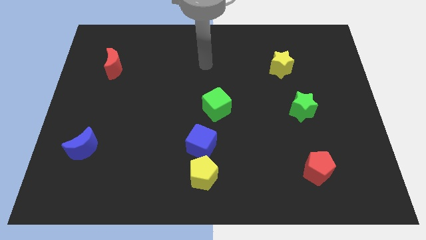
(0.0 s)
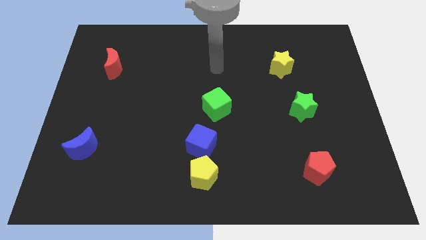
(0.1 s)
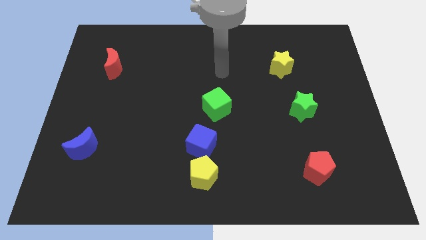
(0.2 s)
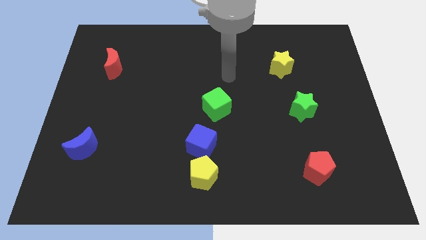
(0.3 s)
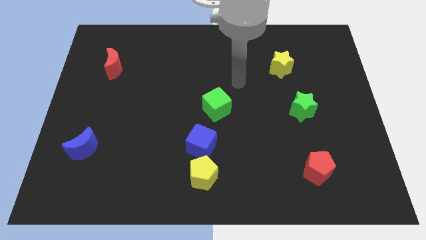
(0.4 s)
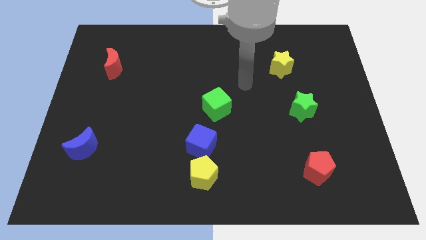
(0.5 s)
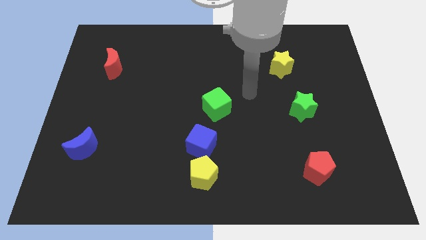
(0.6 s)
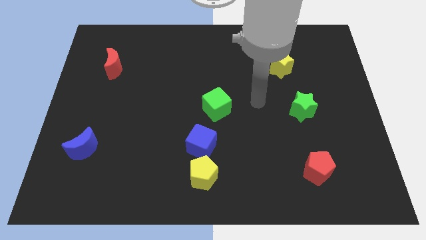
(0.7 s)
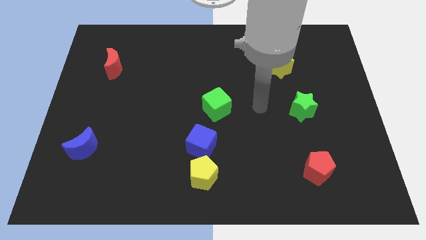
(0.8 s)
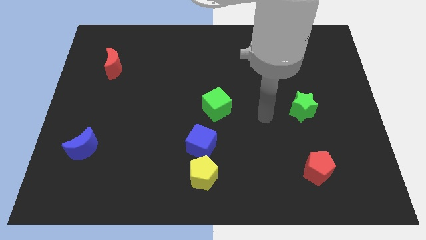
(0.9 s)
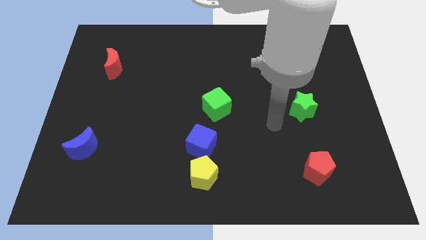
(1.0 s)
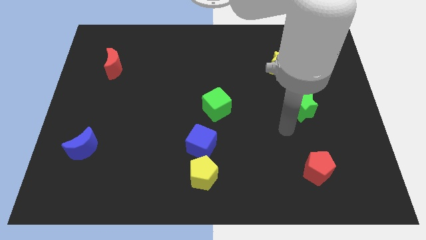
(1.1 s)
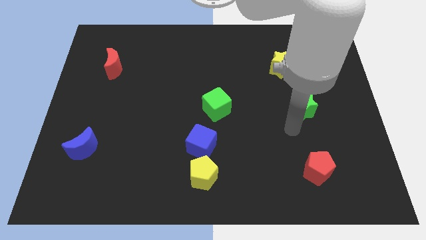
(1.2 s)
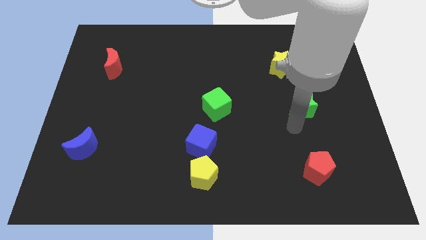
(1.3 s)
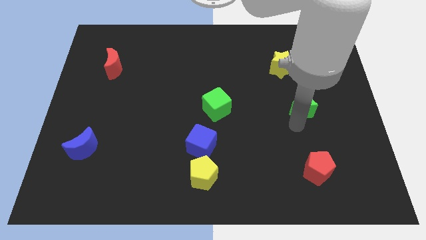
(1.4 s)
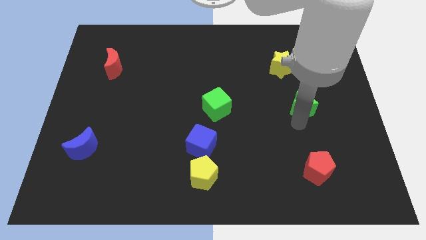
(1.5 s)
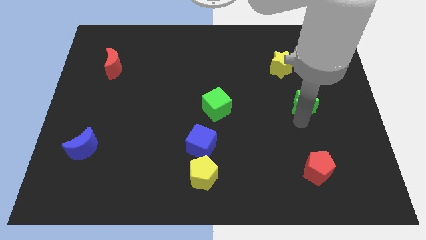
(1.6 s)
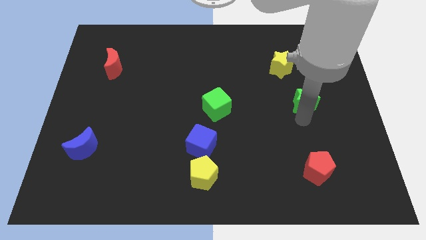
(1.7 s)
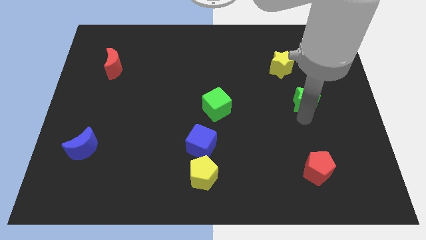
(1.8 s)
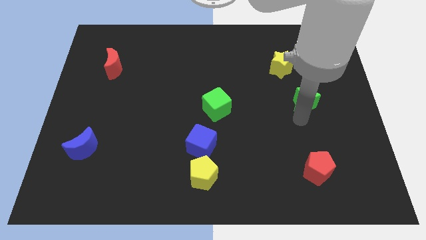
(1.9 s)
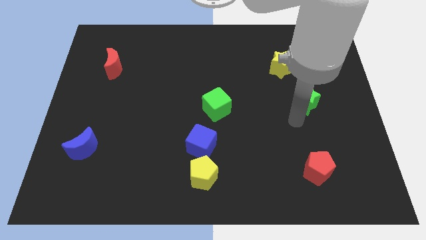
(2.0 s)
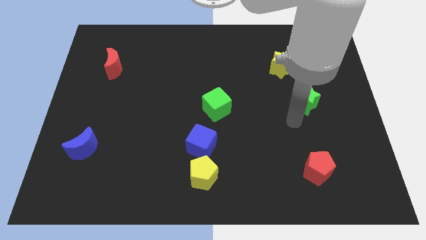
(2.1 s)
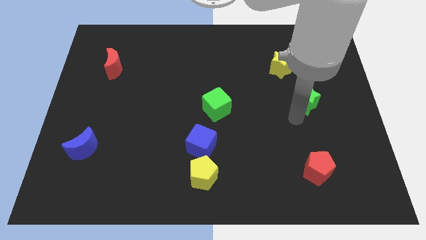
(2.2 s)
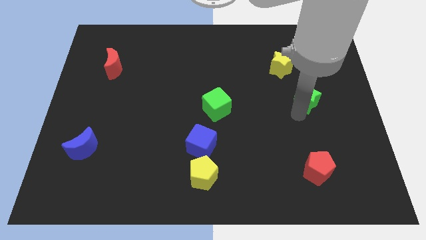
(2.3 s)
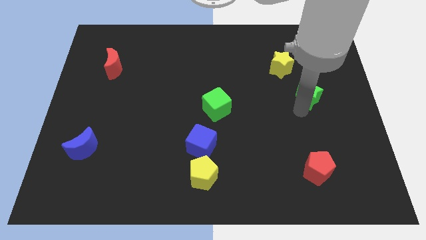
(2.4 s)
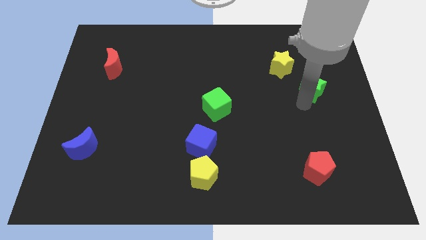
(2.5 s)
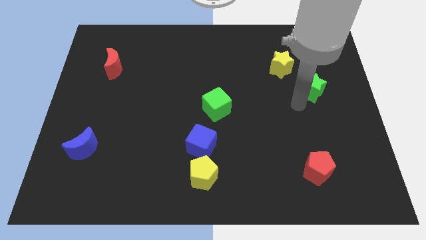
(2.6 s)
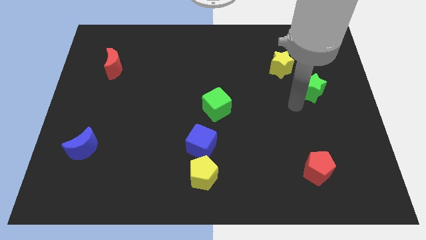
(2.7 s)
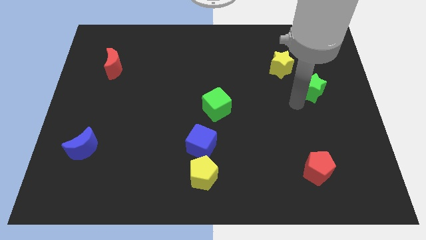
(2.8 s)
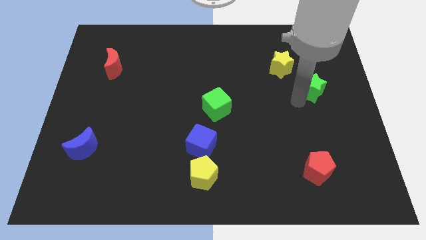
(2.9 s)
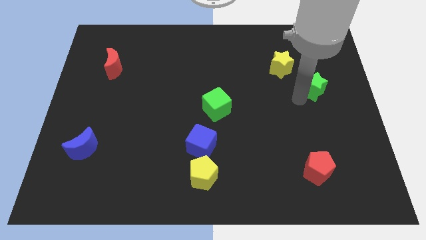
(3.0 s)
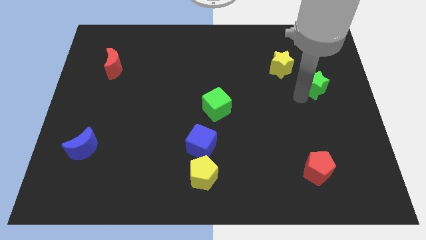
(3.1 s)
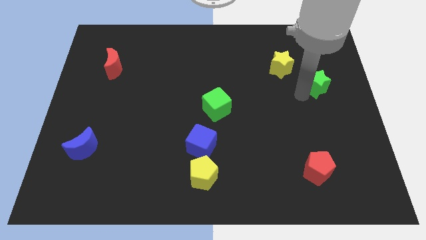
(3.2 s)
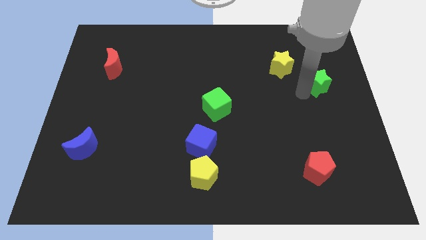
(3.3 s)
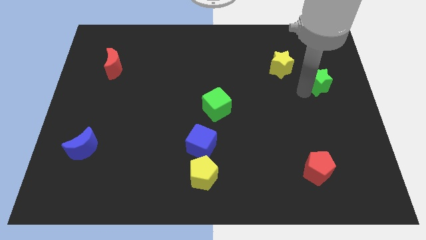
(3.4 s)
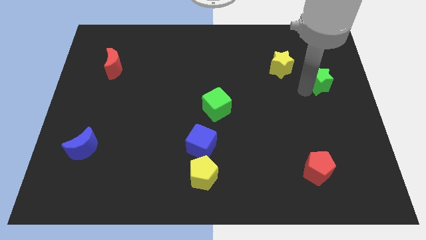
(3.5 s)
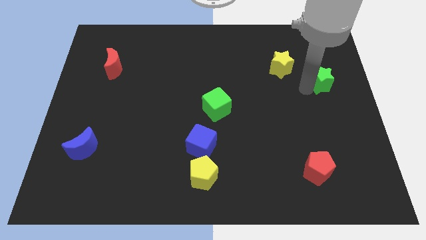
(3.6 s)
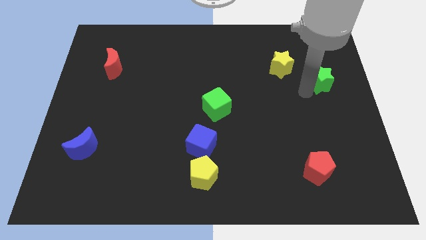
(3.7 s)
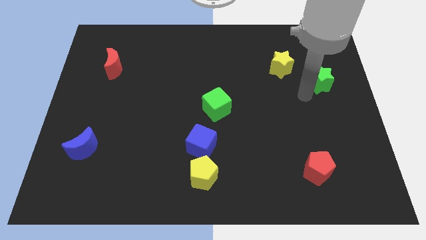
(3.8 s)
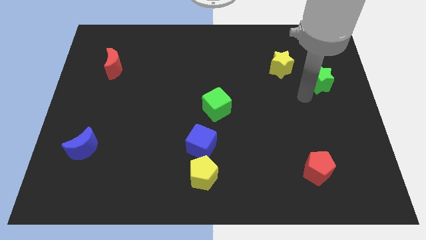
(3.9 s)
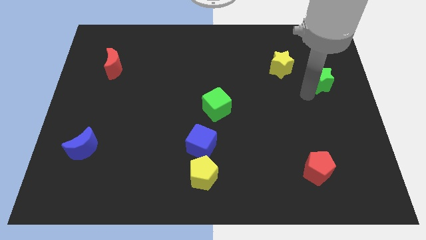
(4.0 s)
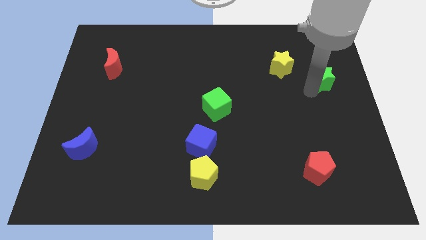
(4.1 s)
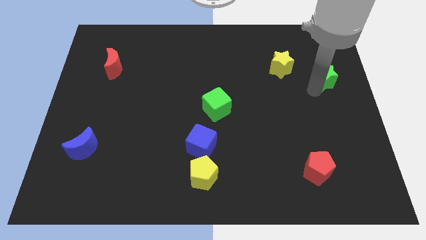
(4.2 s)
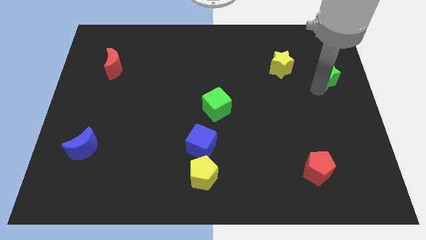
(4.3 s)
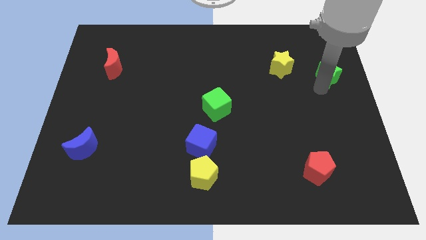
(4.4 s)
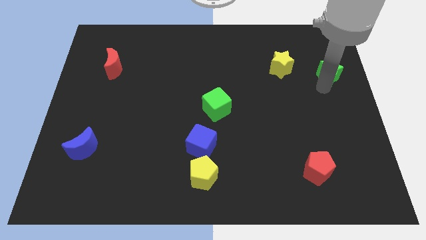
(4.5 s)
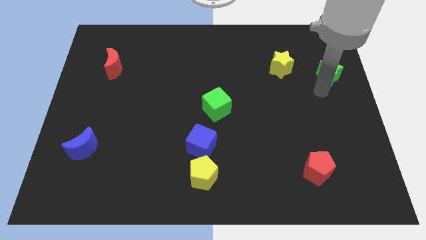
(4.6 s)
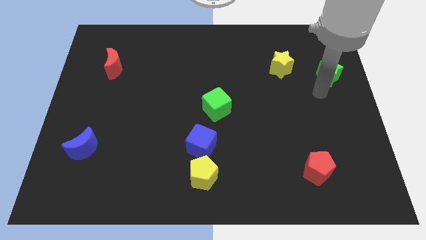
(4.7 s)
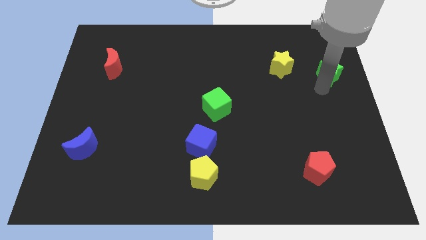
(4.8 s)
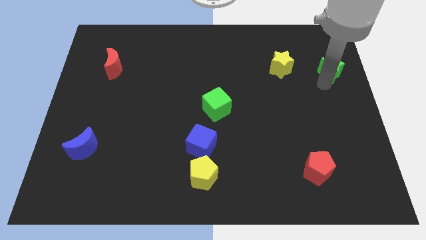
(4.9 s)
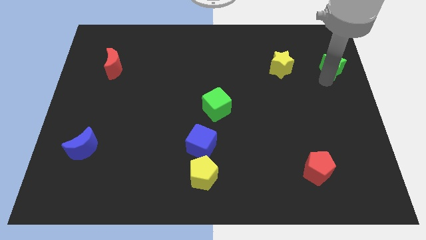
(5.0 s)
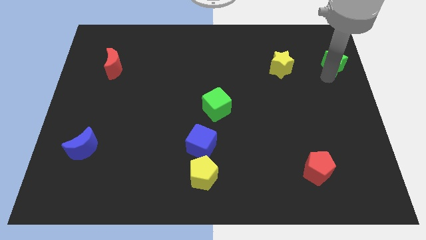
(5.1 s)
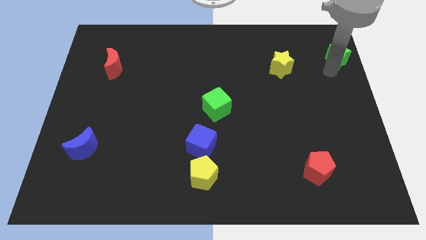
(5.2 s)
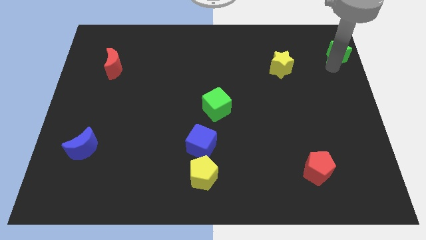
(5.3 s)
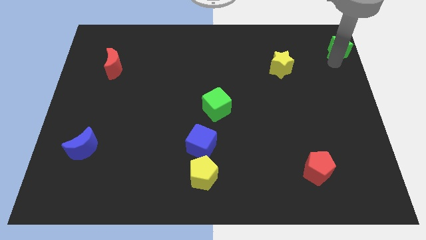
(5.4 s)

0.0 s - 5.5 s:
push the green star to the top right corner
